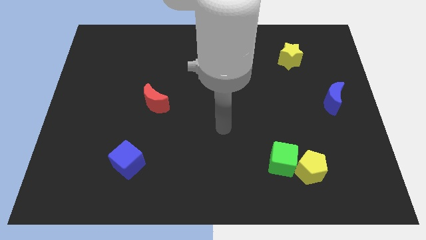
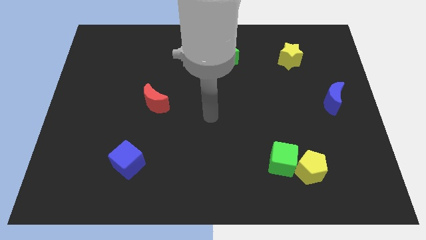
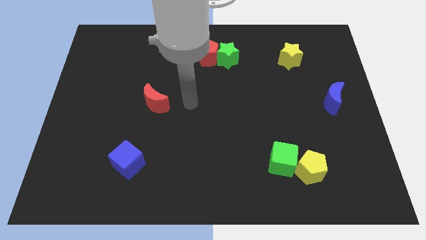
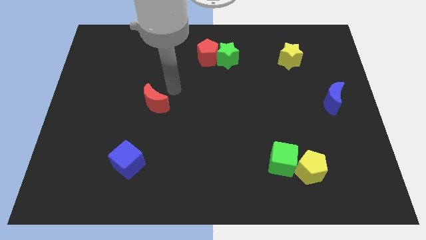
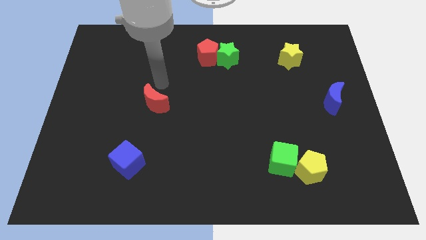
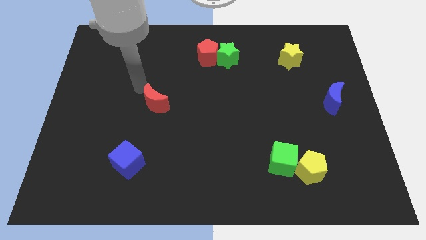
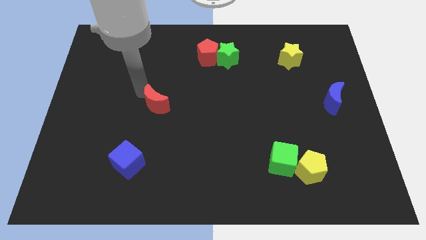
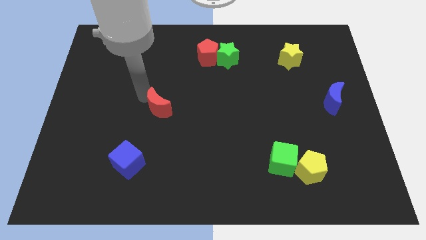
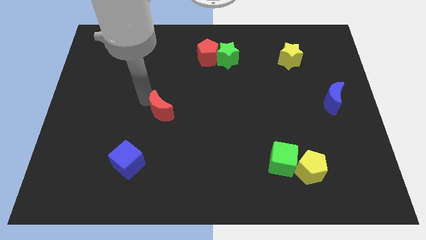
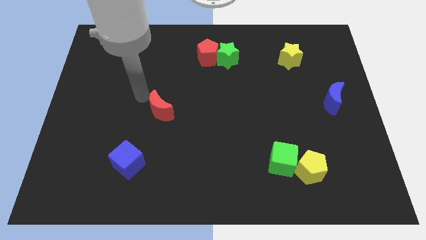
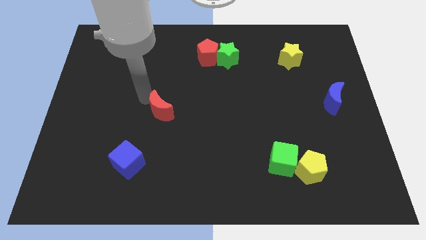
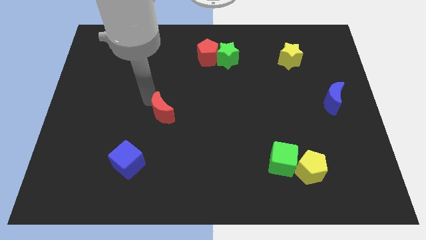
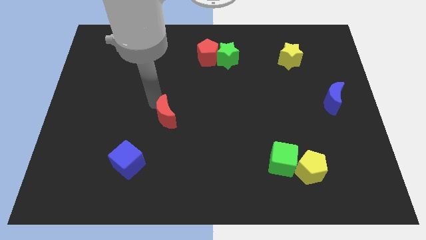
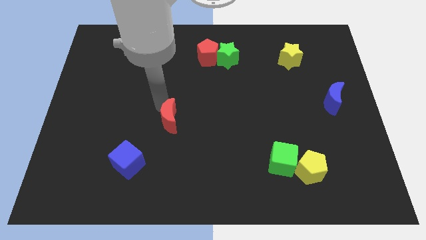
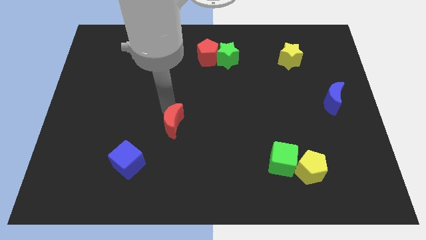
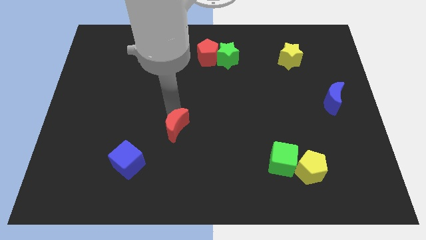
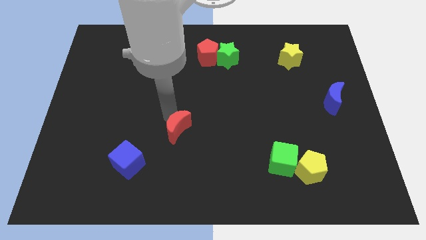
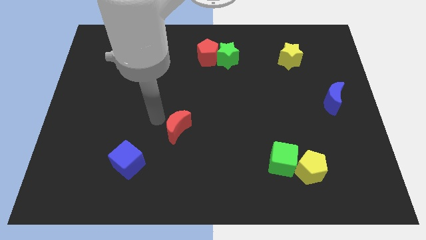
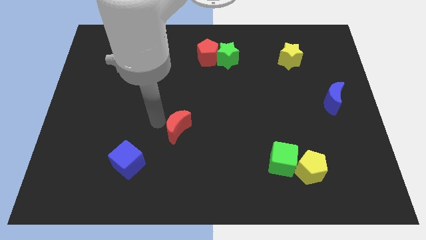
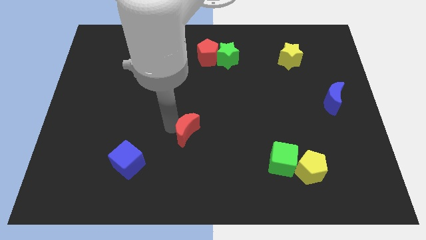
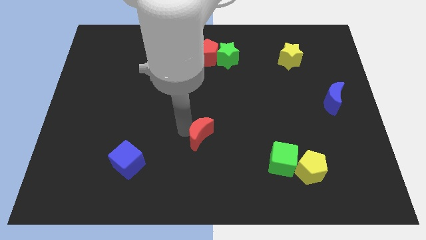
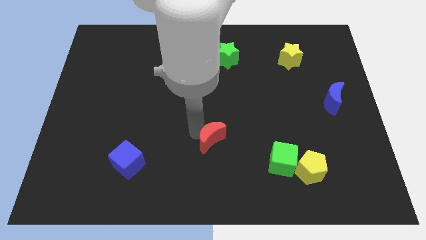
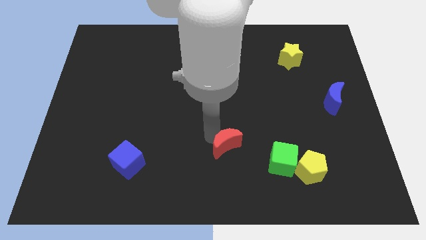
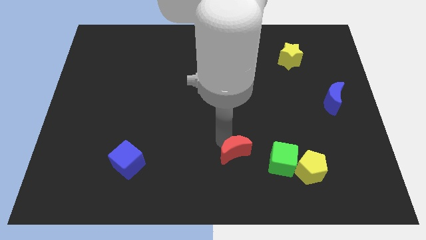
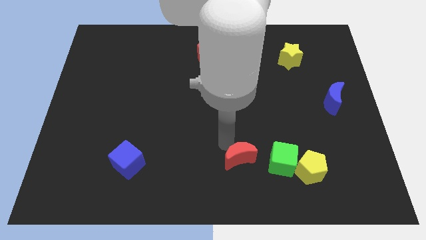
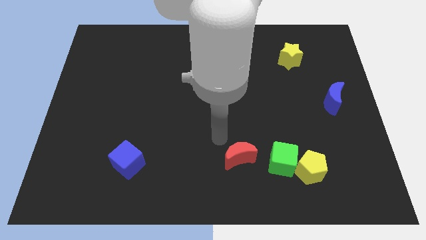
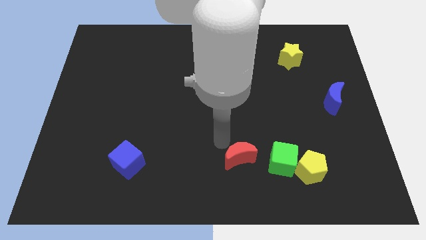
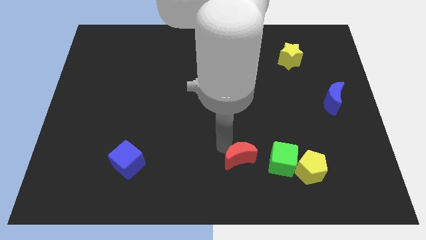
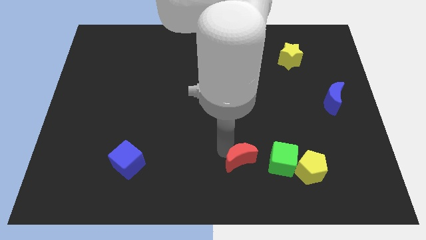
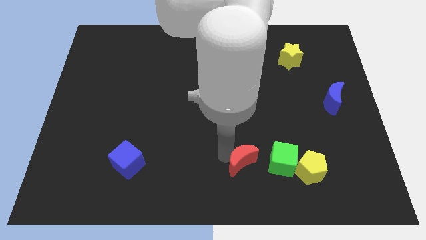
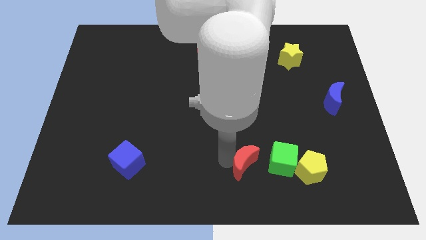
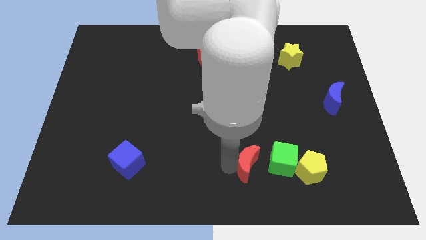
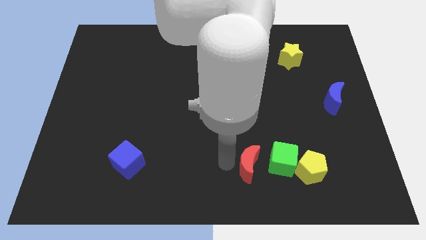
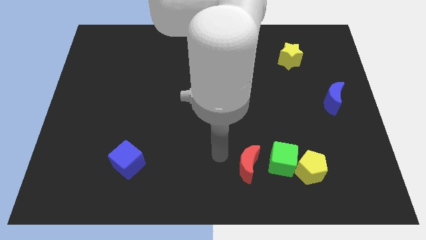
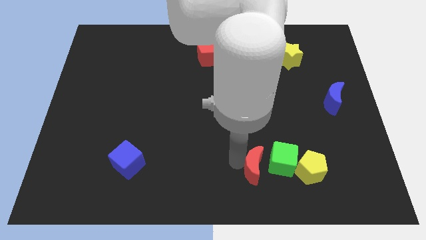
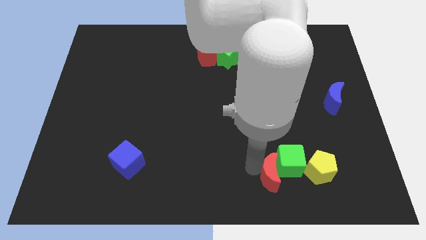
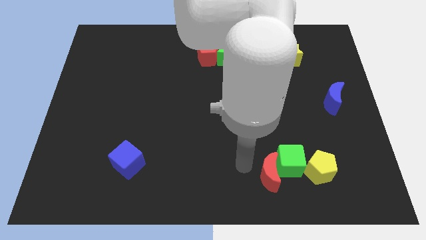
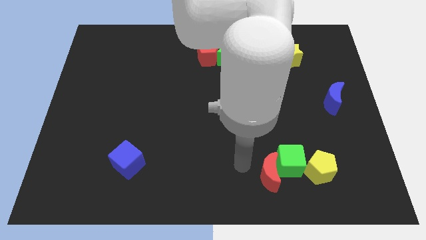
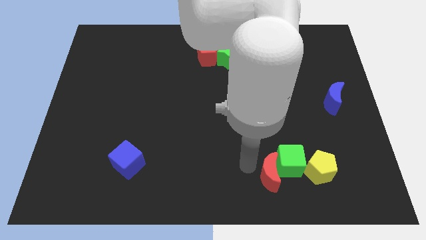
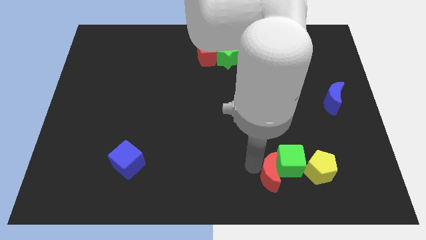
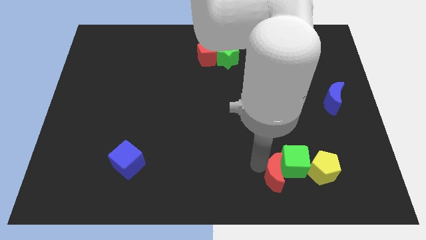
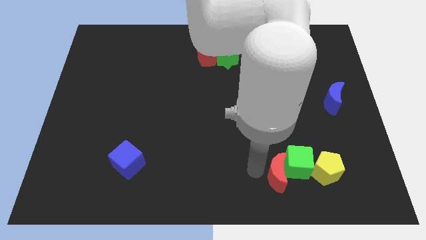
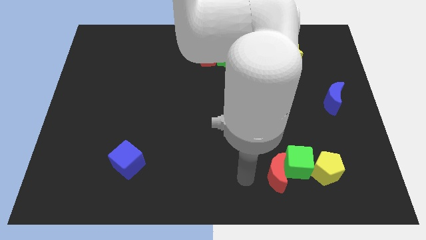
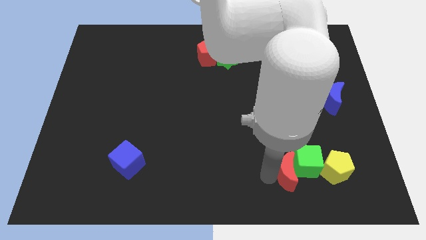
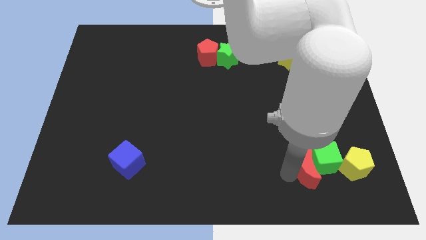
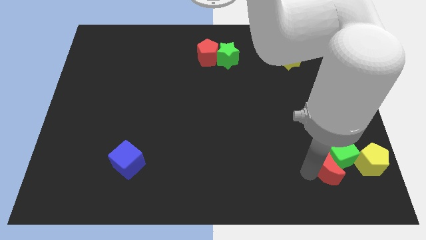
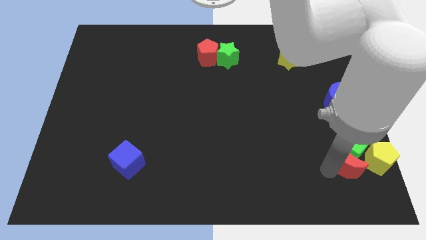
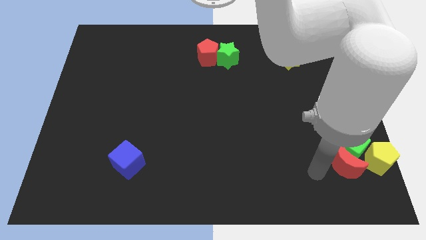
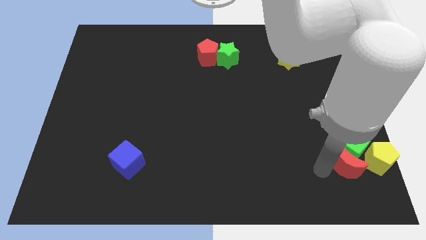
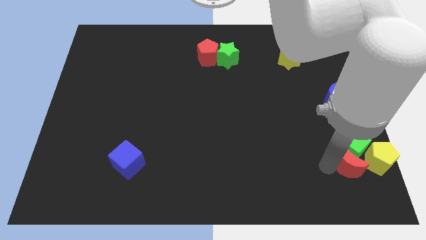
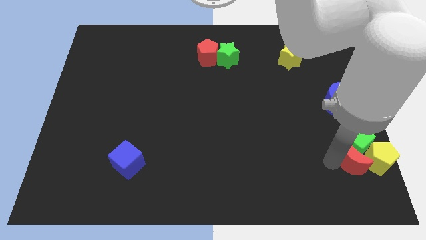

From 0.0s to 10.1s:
slide the red moon next to the yellow pentagon

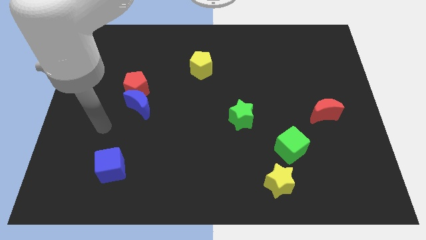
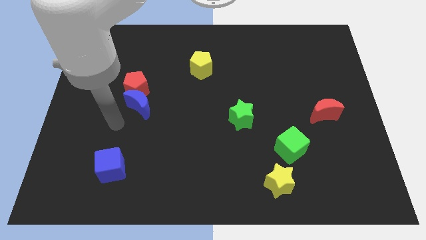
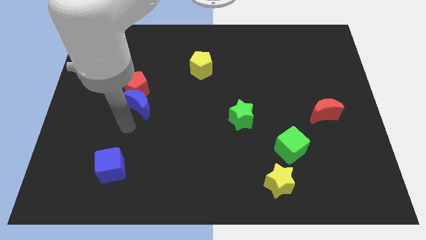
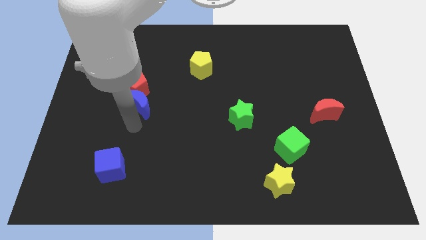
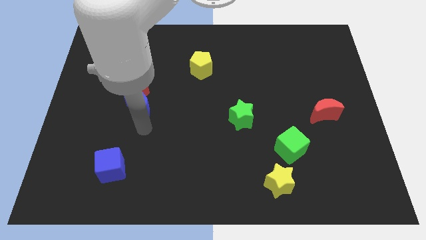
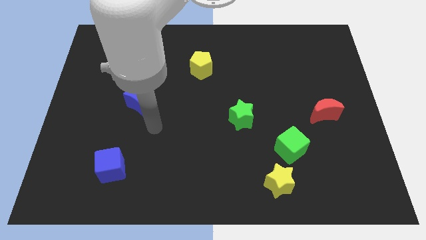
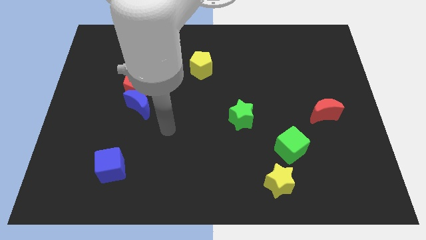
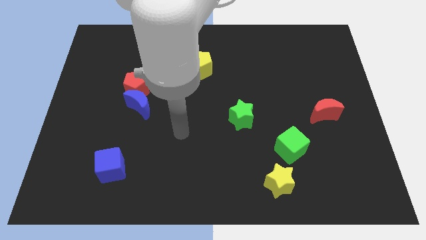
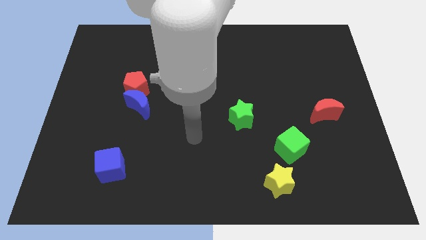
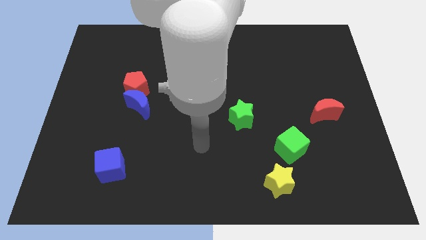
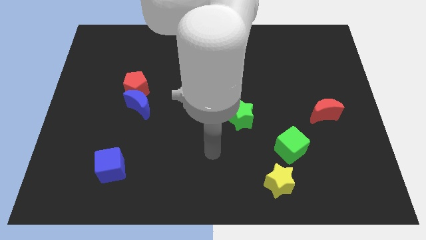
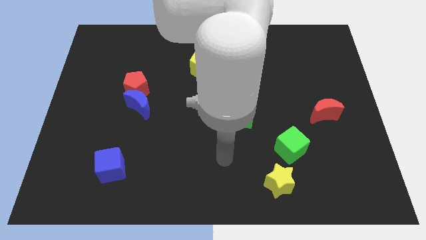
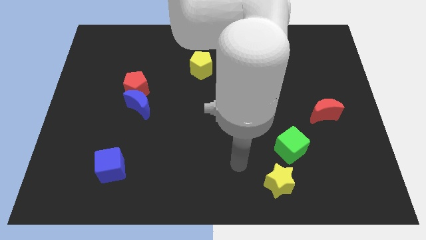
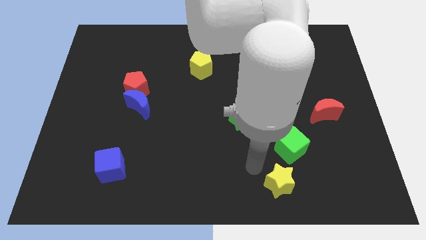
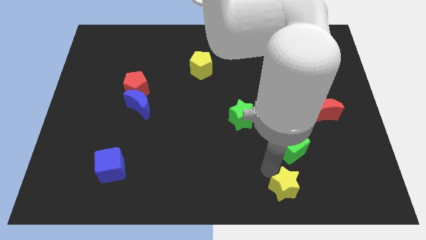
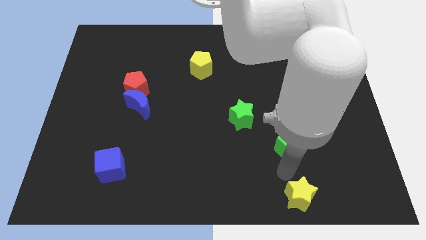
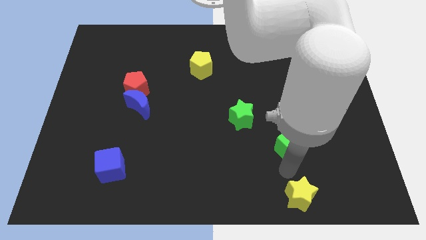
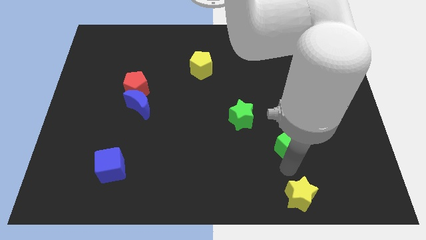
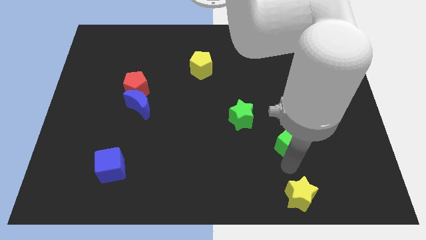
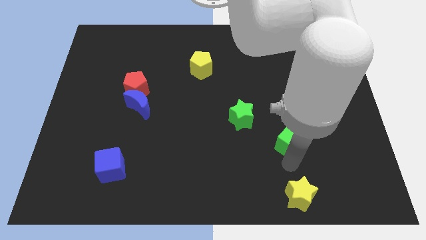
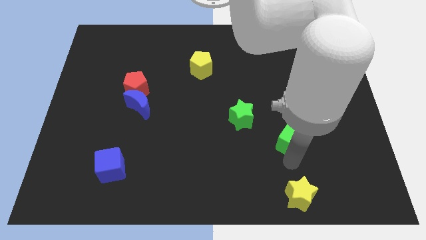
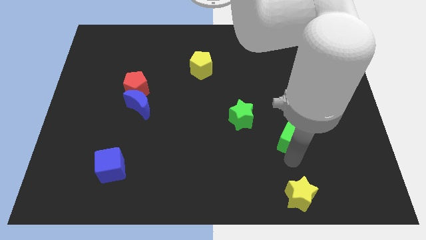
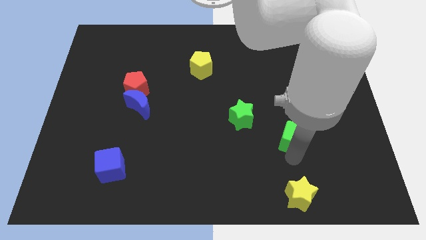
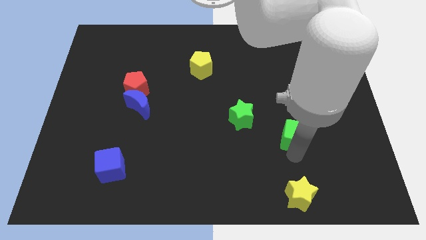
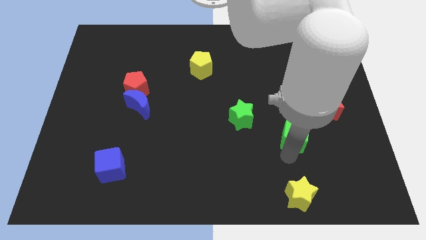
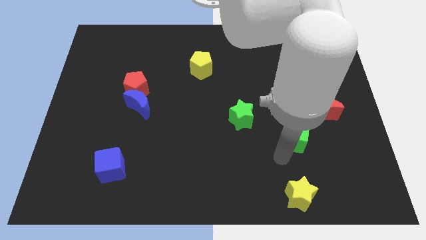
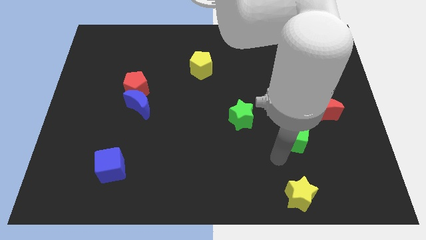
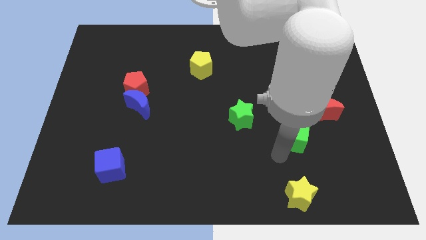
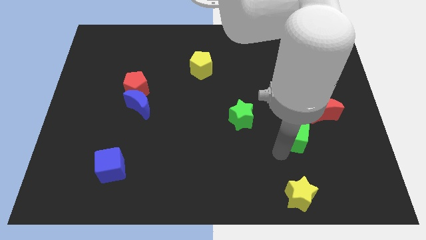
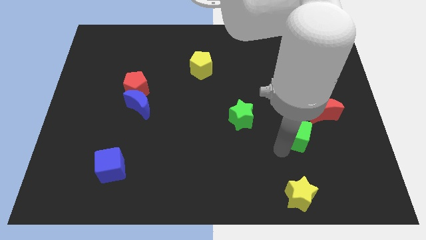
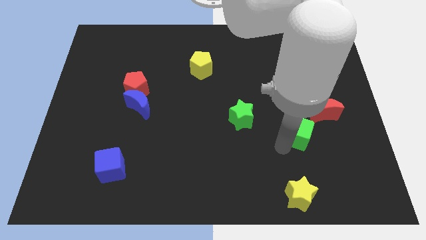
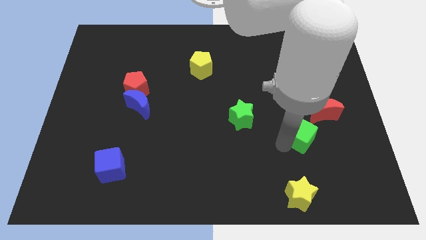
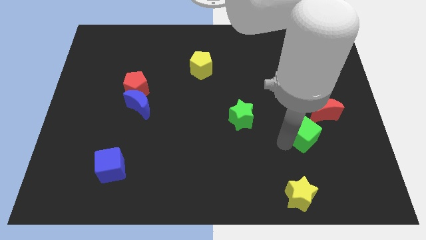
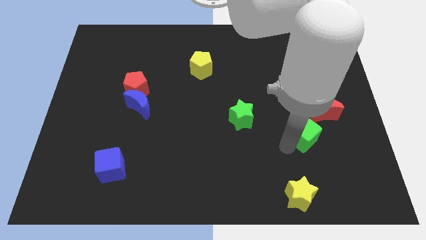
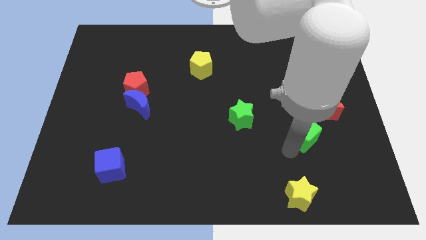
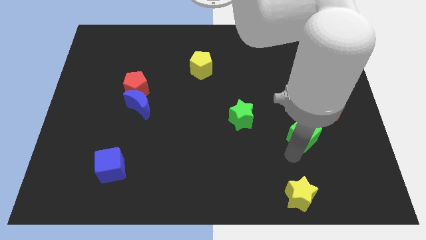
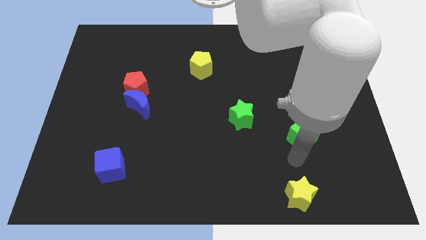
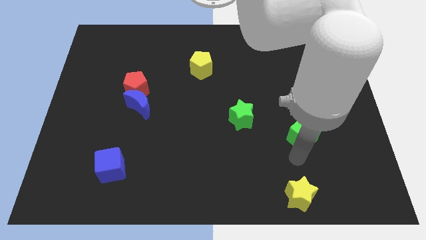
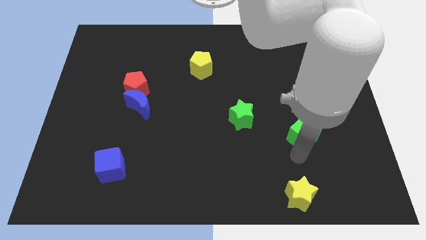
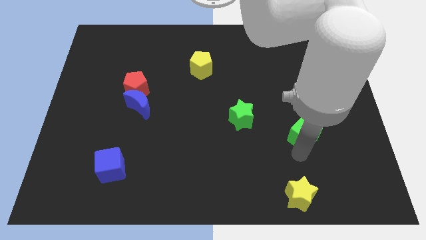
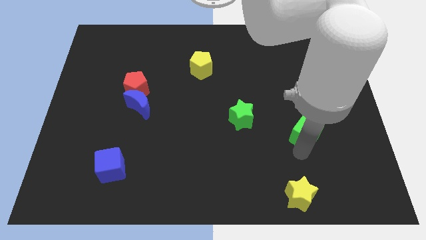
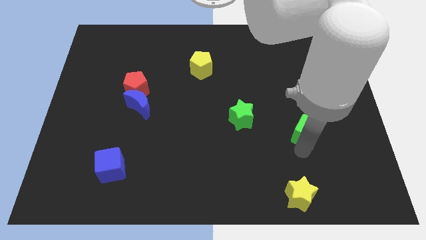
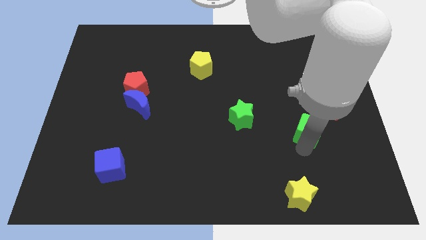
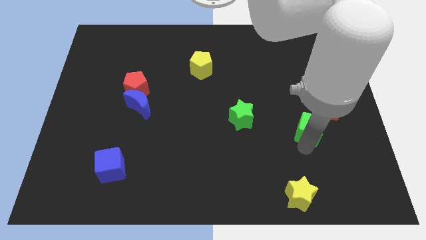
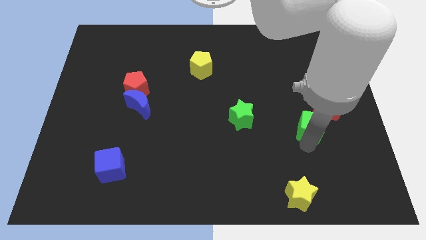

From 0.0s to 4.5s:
move the green cube next to the red moon
